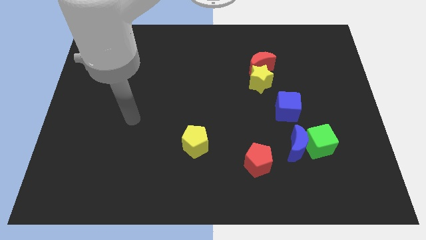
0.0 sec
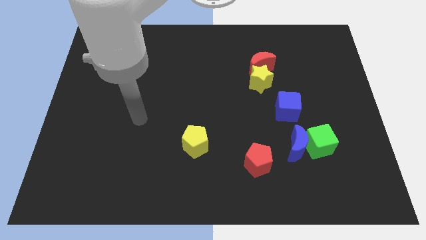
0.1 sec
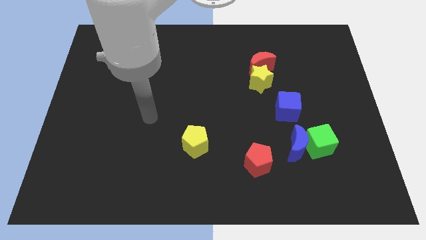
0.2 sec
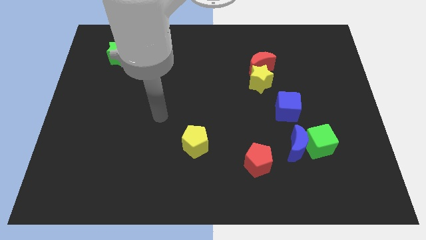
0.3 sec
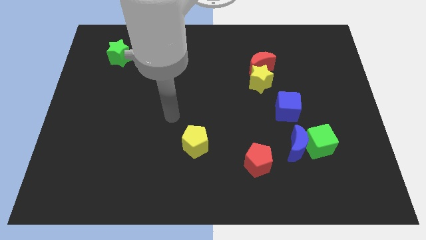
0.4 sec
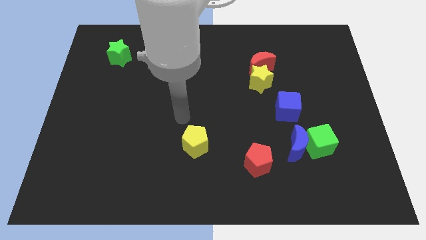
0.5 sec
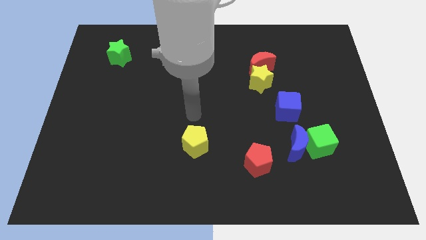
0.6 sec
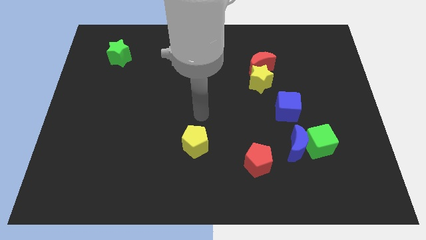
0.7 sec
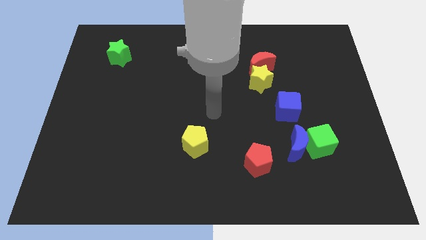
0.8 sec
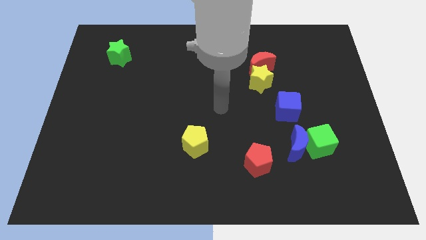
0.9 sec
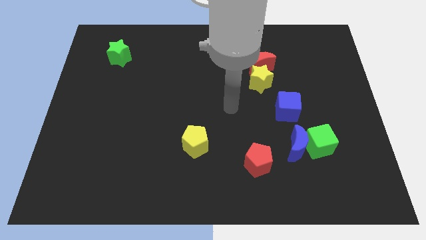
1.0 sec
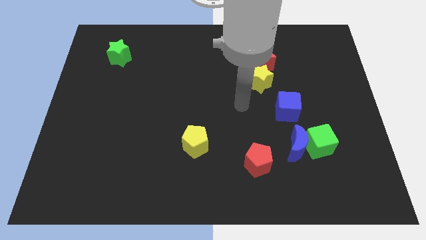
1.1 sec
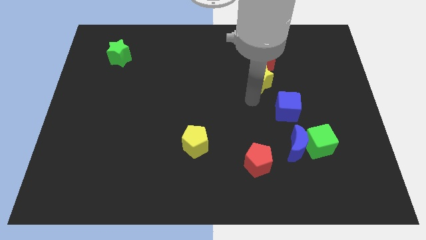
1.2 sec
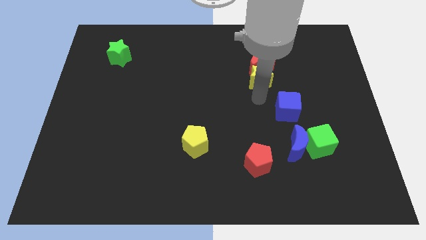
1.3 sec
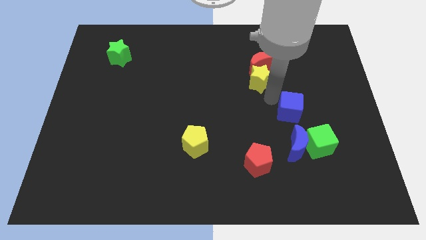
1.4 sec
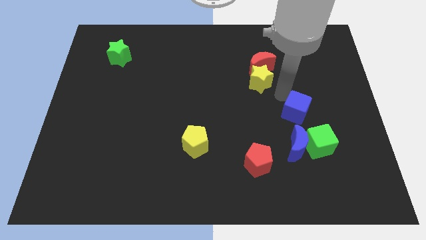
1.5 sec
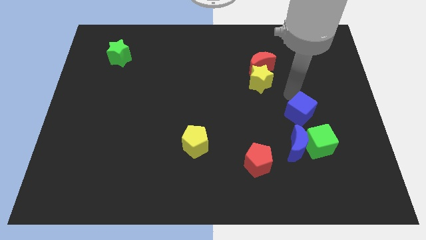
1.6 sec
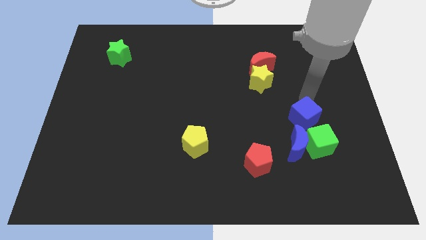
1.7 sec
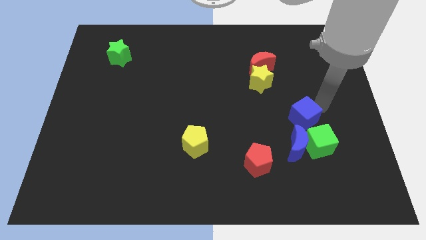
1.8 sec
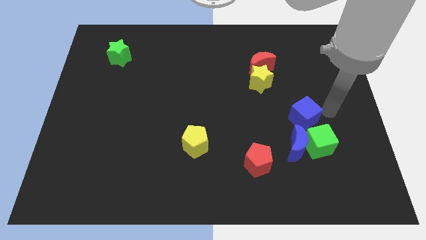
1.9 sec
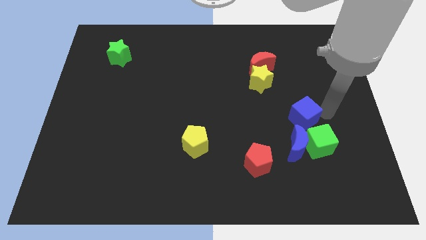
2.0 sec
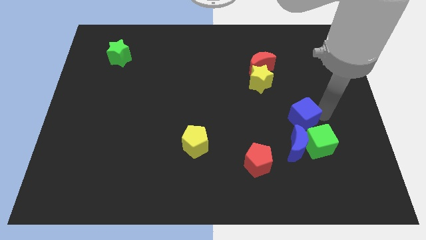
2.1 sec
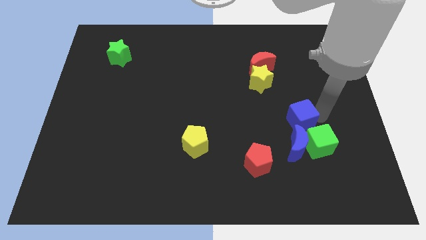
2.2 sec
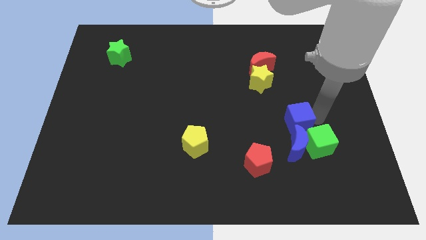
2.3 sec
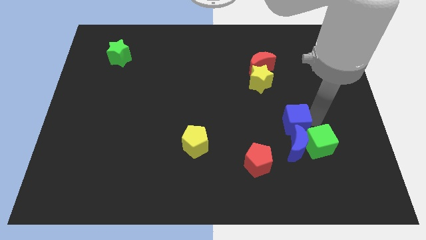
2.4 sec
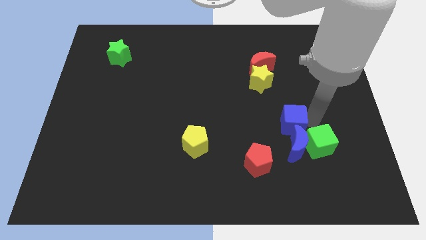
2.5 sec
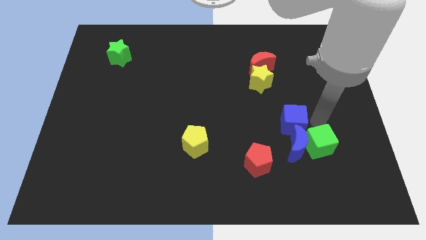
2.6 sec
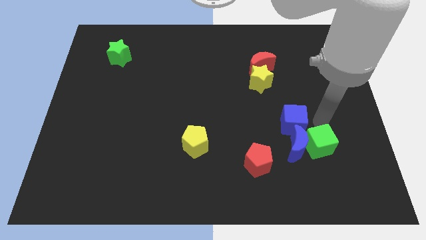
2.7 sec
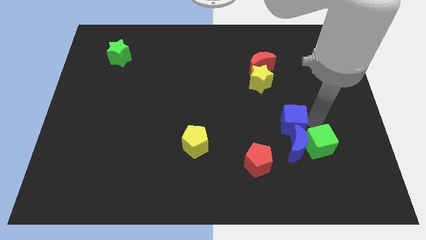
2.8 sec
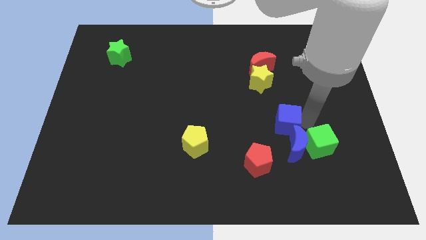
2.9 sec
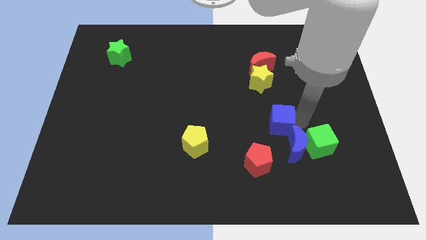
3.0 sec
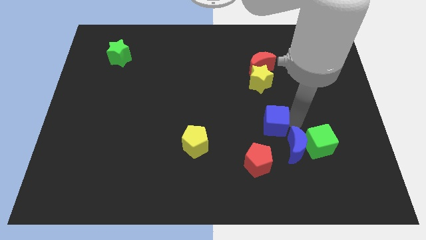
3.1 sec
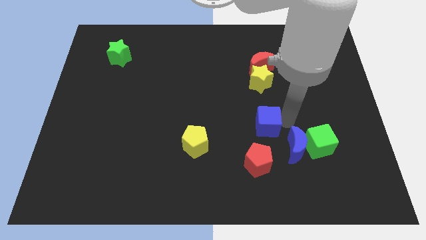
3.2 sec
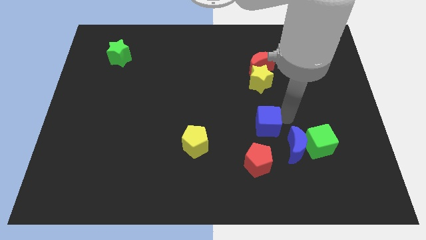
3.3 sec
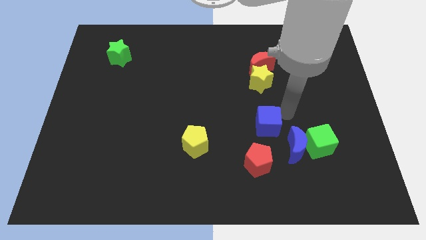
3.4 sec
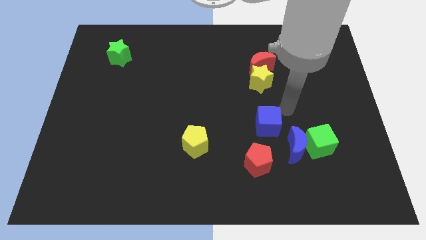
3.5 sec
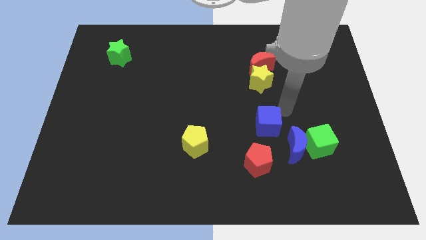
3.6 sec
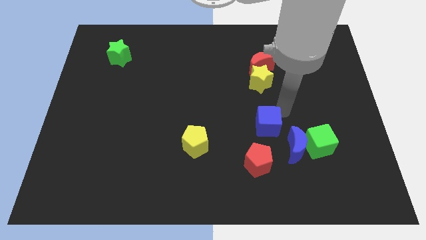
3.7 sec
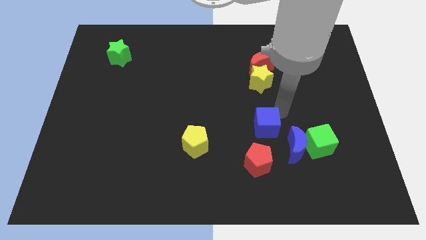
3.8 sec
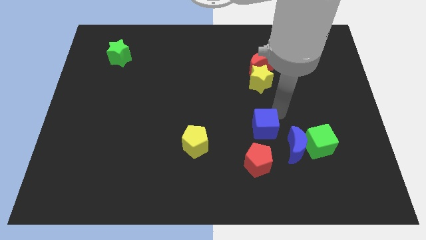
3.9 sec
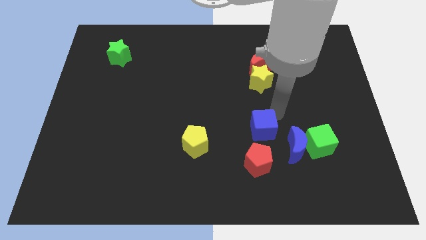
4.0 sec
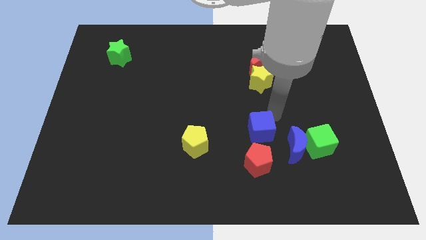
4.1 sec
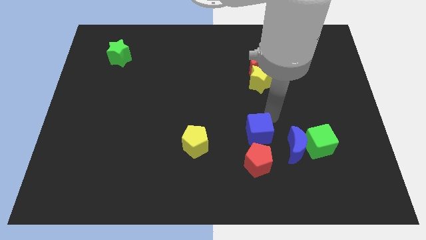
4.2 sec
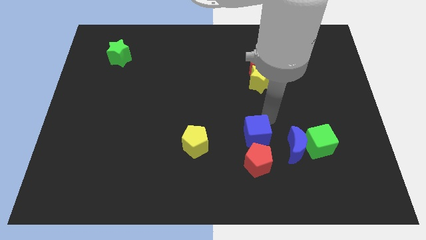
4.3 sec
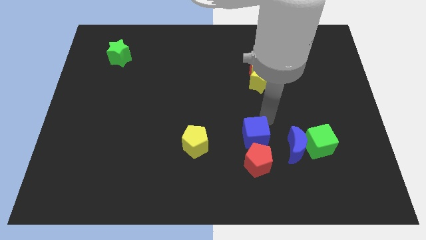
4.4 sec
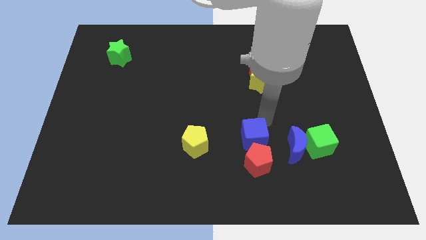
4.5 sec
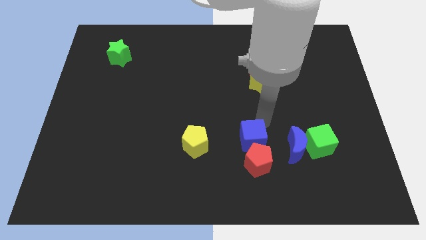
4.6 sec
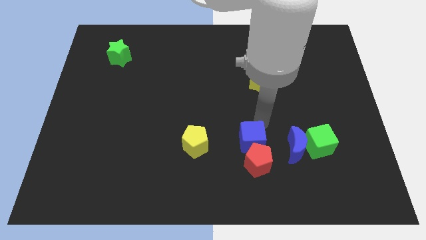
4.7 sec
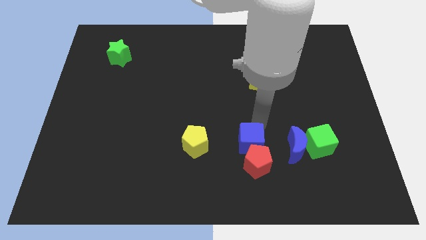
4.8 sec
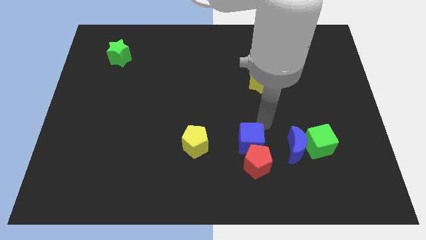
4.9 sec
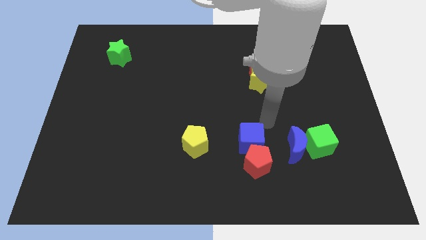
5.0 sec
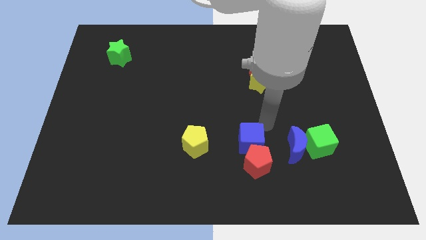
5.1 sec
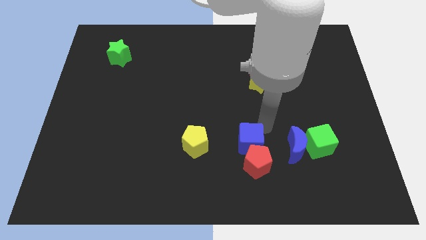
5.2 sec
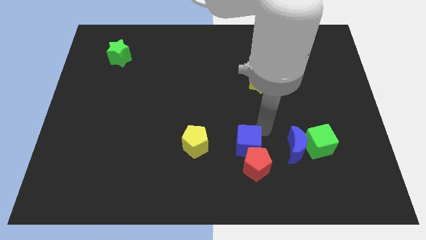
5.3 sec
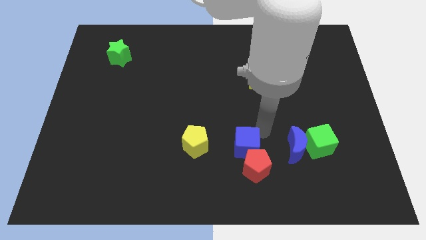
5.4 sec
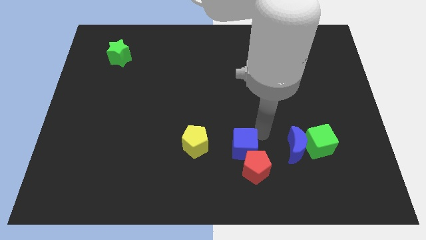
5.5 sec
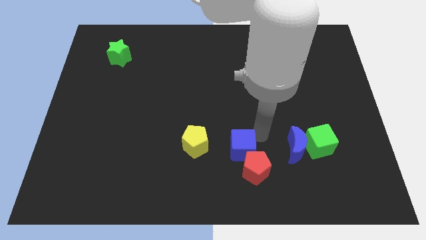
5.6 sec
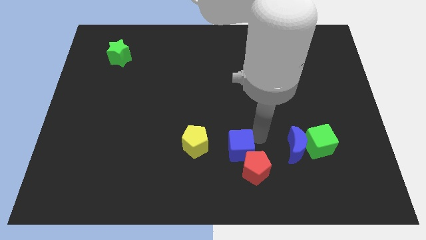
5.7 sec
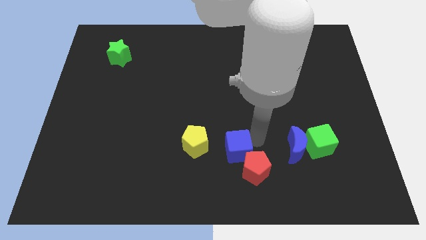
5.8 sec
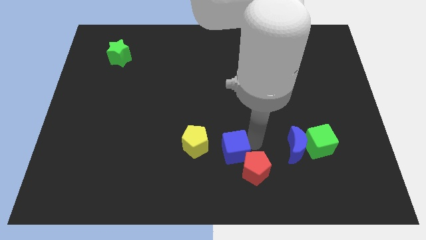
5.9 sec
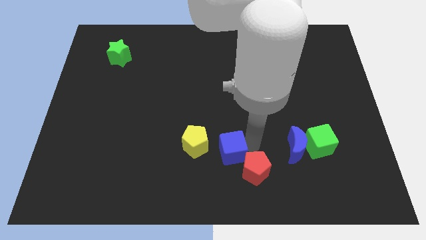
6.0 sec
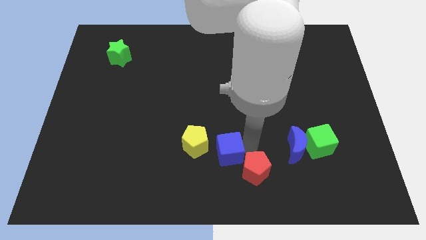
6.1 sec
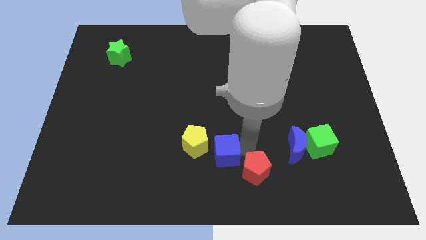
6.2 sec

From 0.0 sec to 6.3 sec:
move the blue cube to the bottom
